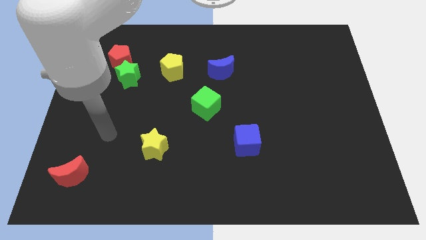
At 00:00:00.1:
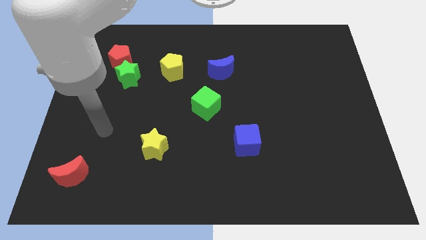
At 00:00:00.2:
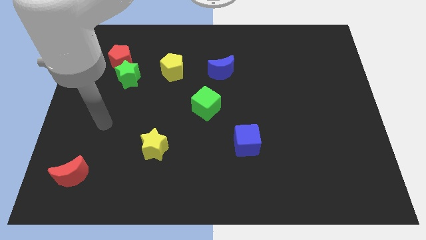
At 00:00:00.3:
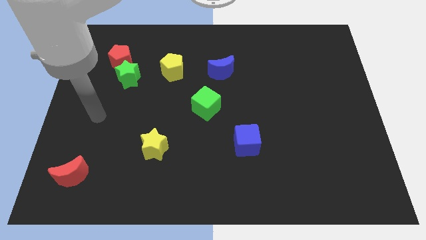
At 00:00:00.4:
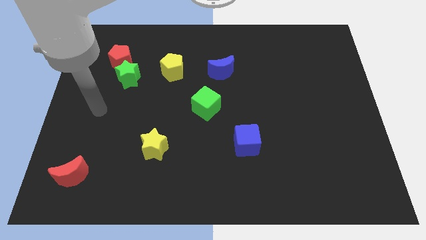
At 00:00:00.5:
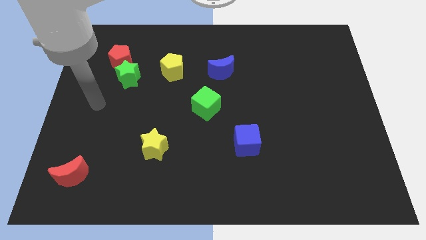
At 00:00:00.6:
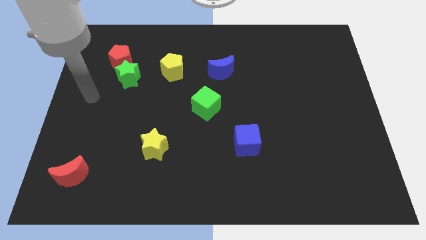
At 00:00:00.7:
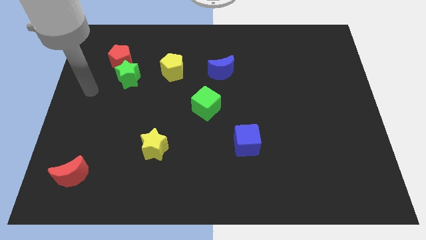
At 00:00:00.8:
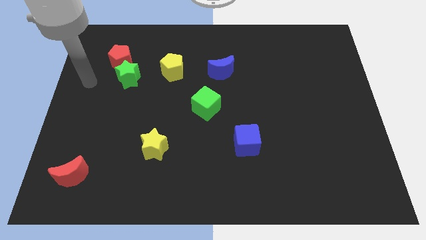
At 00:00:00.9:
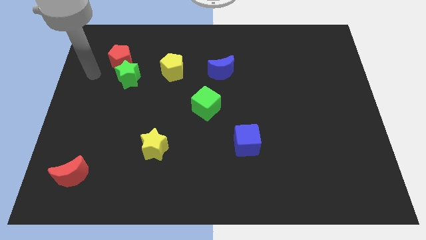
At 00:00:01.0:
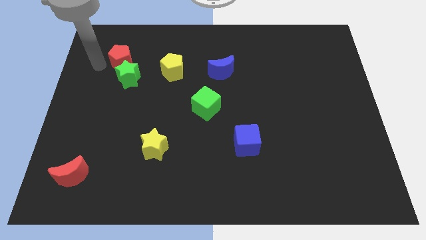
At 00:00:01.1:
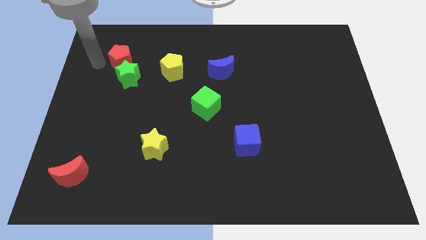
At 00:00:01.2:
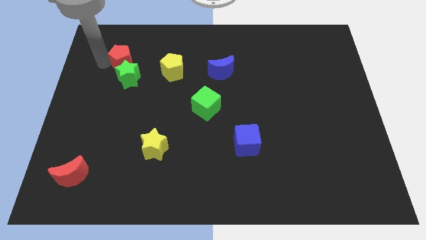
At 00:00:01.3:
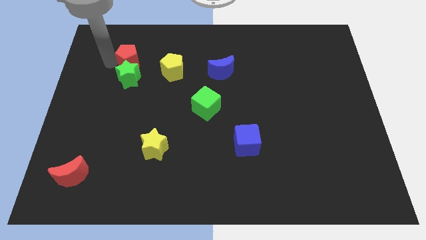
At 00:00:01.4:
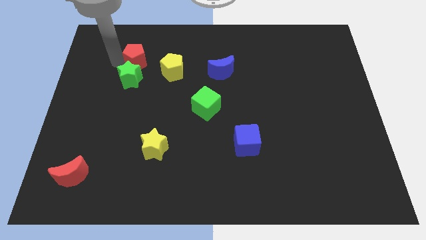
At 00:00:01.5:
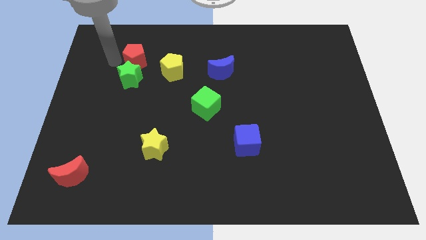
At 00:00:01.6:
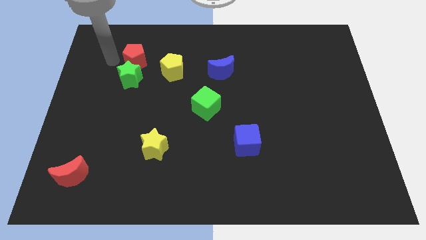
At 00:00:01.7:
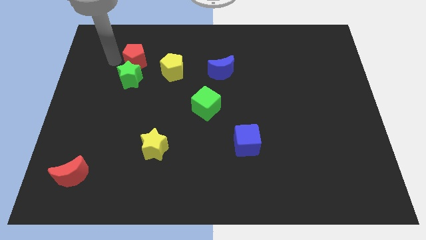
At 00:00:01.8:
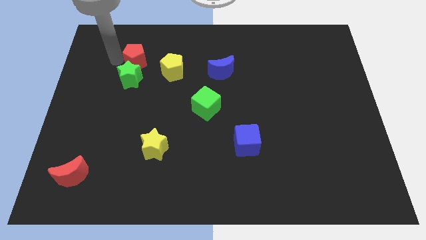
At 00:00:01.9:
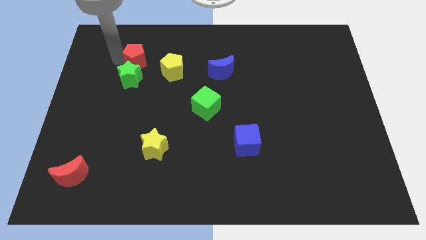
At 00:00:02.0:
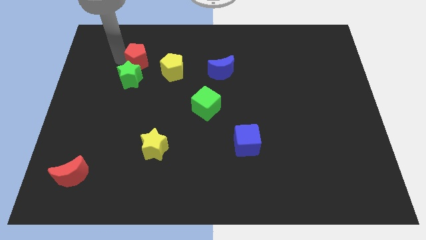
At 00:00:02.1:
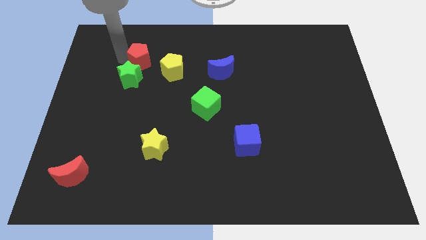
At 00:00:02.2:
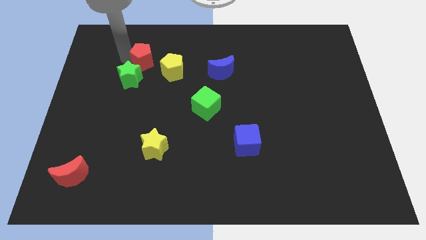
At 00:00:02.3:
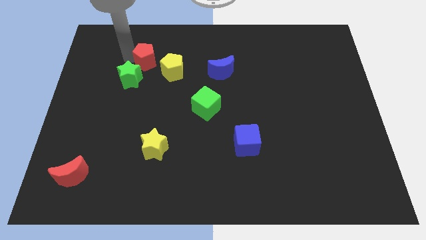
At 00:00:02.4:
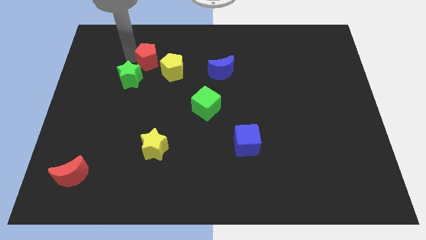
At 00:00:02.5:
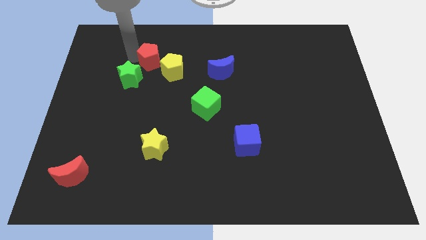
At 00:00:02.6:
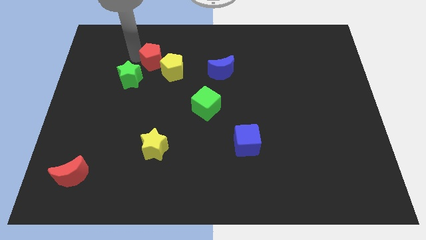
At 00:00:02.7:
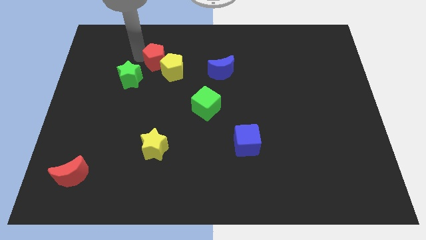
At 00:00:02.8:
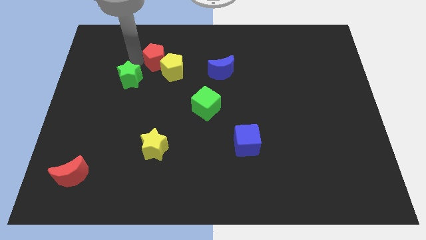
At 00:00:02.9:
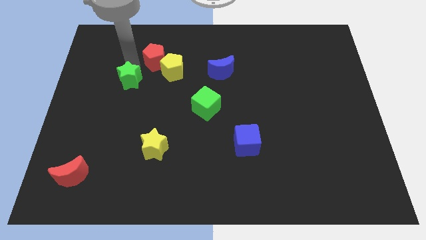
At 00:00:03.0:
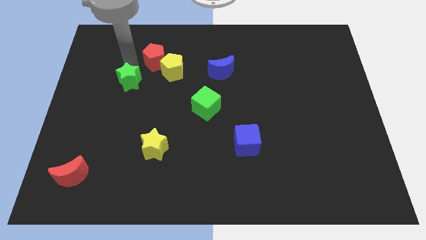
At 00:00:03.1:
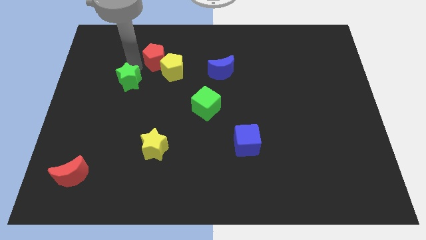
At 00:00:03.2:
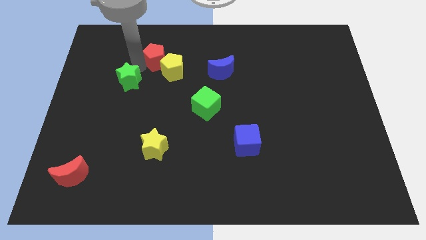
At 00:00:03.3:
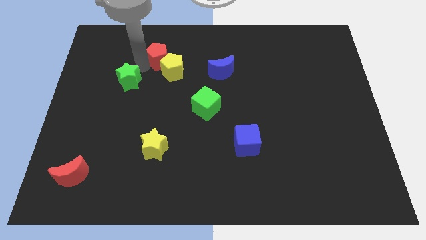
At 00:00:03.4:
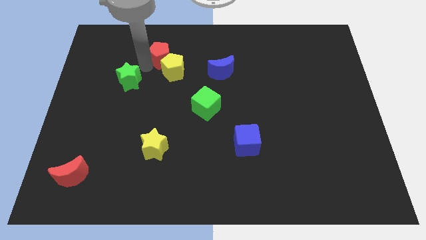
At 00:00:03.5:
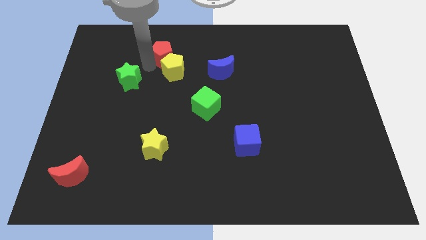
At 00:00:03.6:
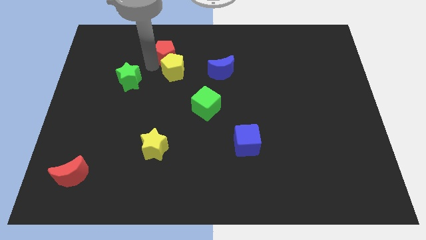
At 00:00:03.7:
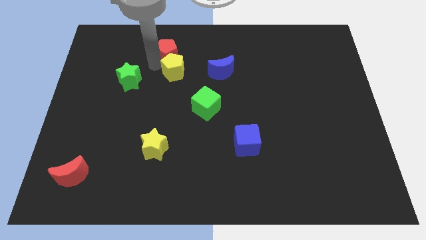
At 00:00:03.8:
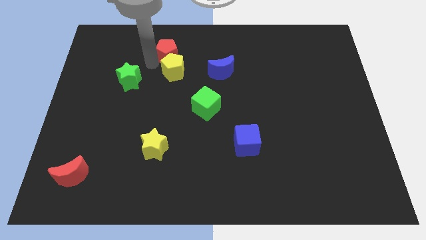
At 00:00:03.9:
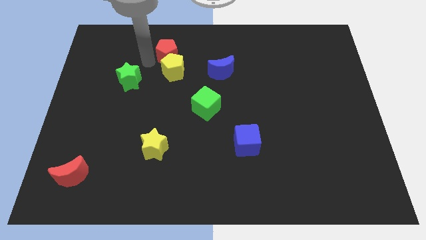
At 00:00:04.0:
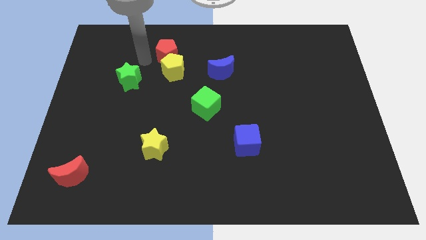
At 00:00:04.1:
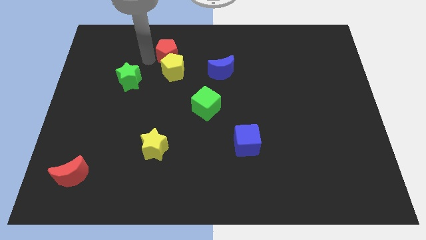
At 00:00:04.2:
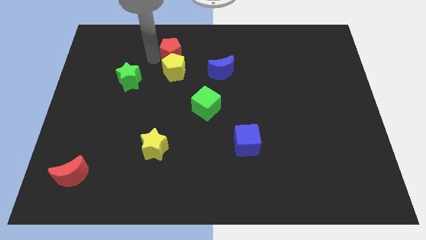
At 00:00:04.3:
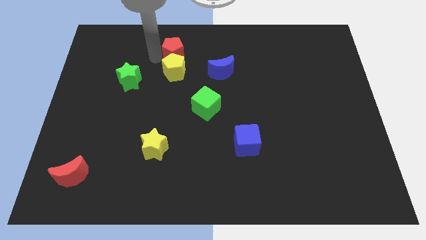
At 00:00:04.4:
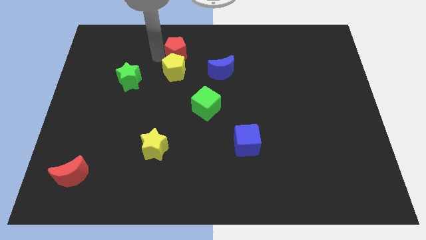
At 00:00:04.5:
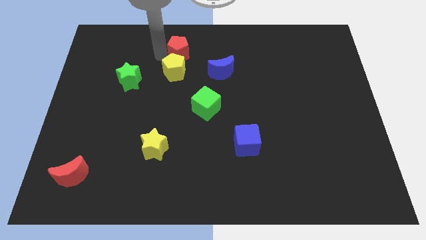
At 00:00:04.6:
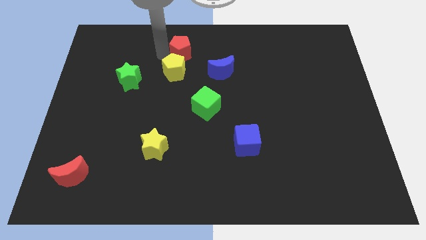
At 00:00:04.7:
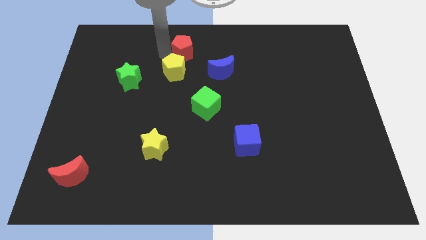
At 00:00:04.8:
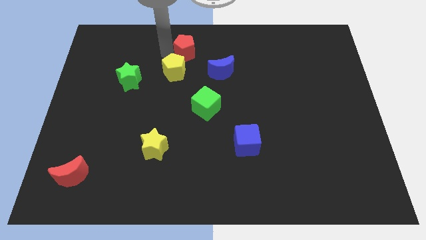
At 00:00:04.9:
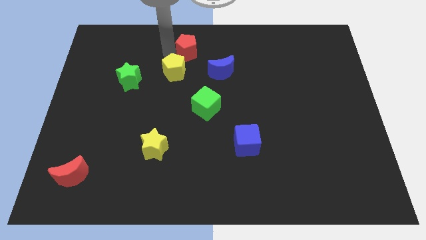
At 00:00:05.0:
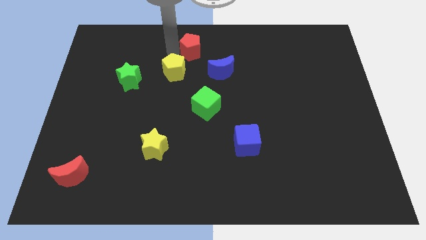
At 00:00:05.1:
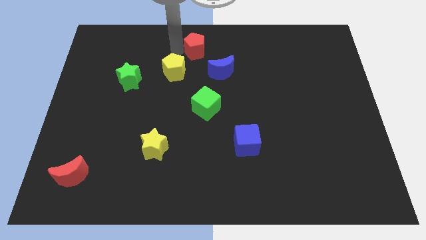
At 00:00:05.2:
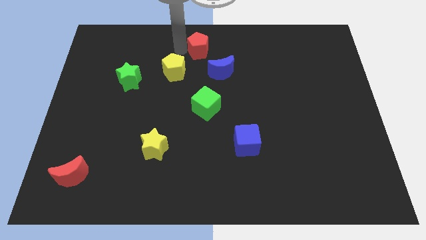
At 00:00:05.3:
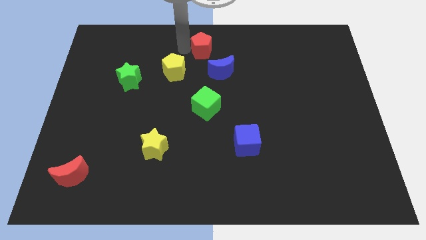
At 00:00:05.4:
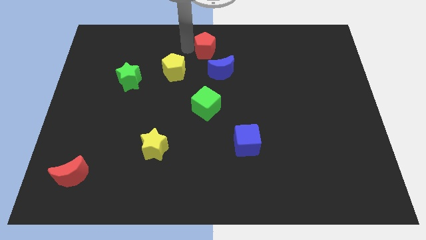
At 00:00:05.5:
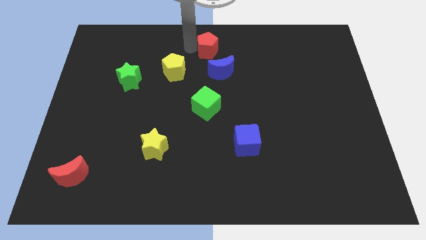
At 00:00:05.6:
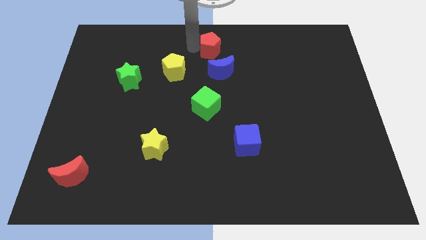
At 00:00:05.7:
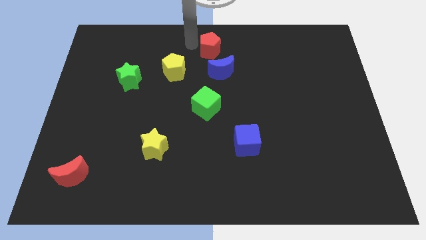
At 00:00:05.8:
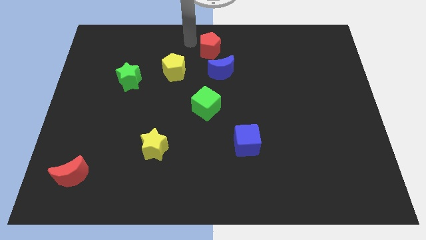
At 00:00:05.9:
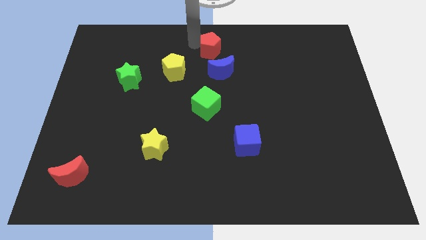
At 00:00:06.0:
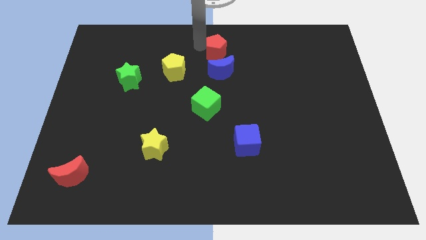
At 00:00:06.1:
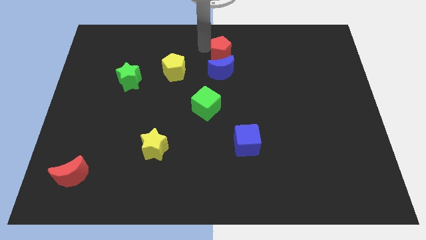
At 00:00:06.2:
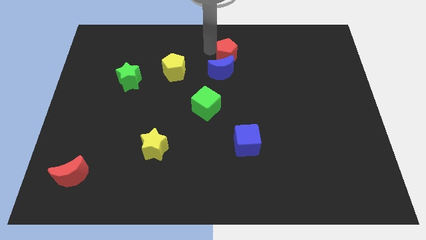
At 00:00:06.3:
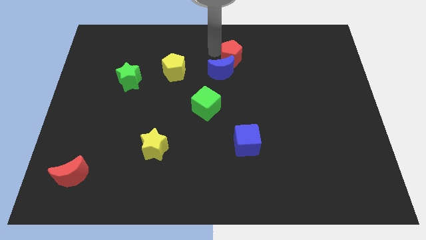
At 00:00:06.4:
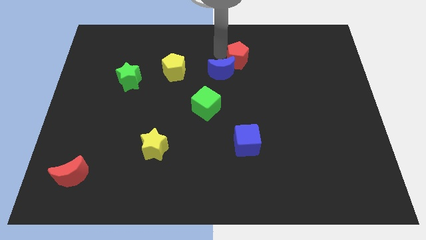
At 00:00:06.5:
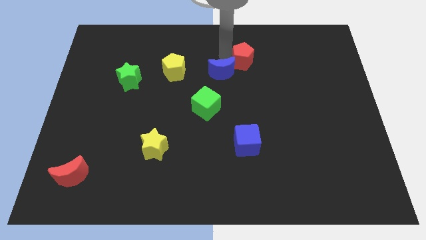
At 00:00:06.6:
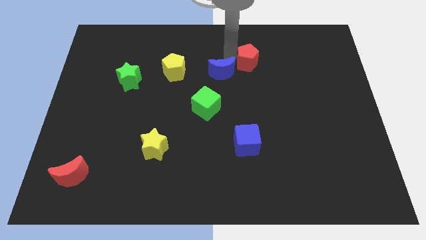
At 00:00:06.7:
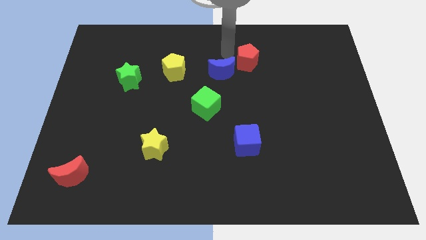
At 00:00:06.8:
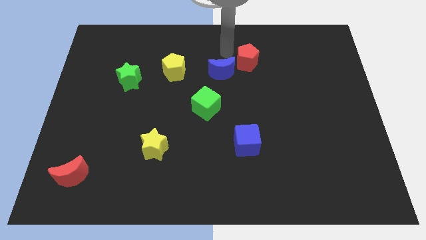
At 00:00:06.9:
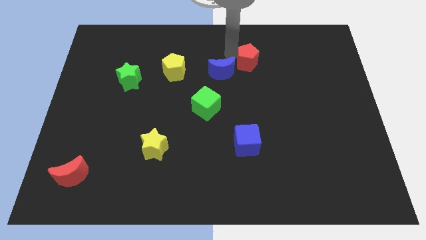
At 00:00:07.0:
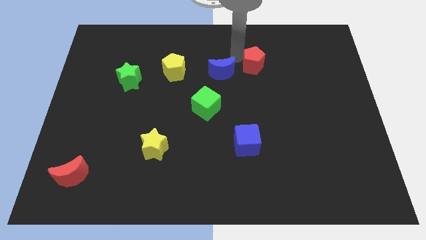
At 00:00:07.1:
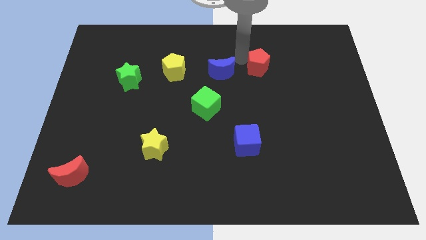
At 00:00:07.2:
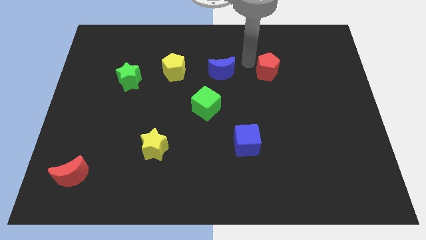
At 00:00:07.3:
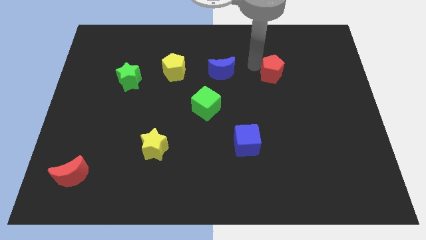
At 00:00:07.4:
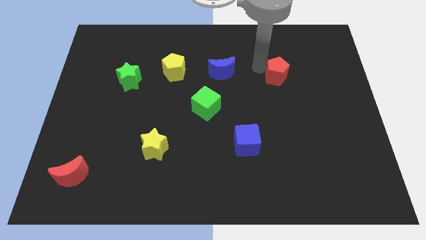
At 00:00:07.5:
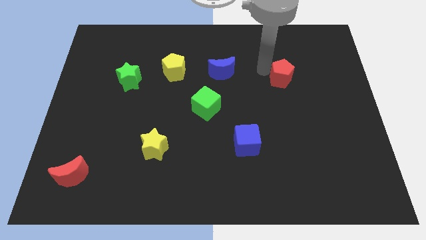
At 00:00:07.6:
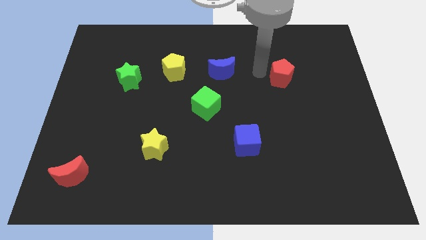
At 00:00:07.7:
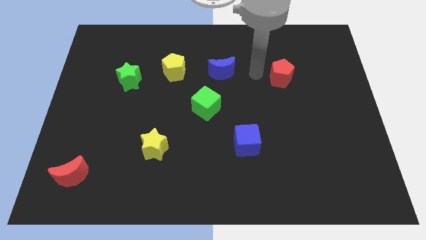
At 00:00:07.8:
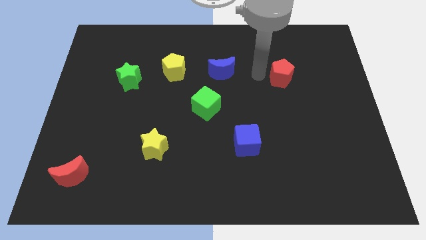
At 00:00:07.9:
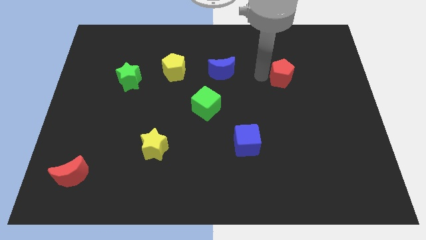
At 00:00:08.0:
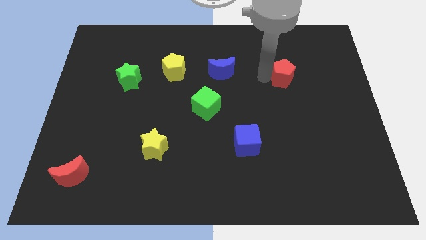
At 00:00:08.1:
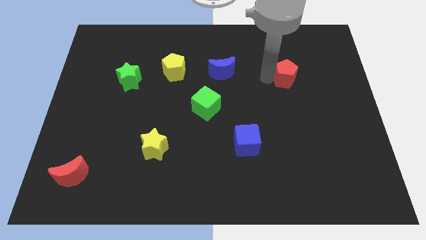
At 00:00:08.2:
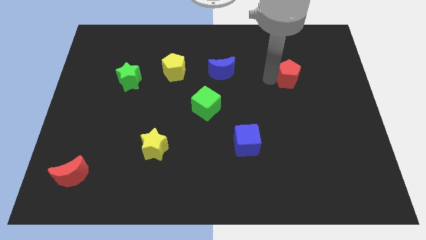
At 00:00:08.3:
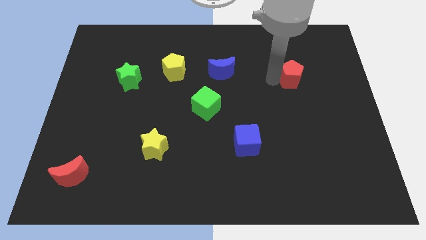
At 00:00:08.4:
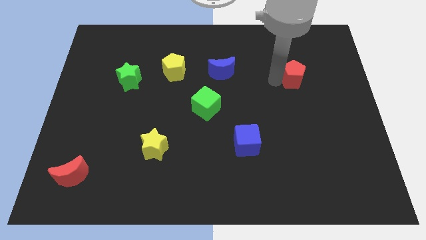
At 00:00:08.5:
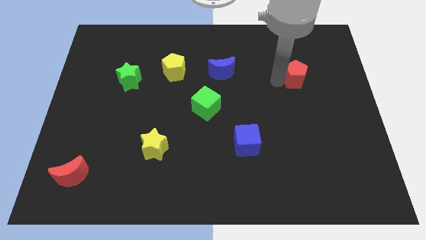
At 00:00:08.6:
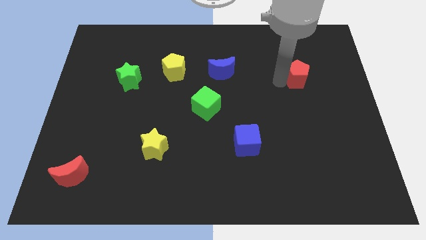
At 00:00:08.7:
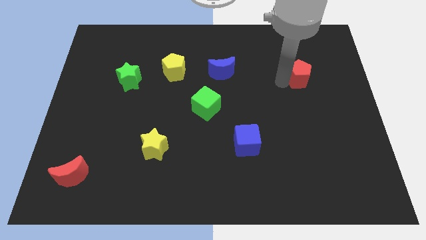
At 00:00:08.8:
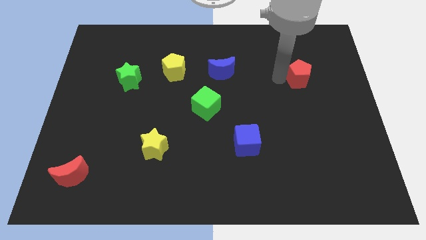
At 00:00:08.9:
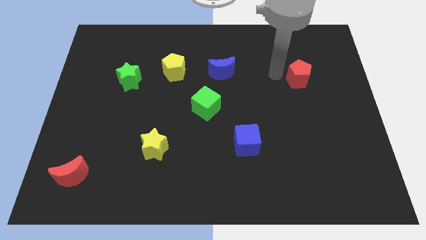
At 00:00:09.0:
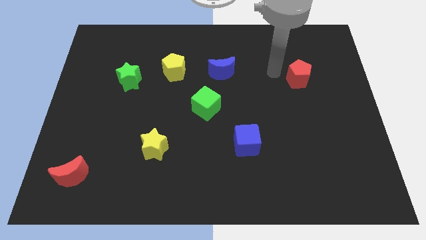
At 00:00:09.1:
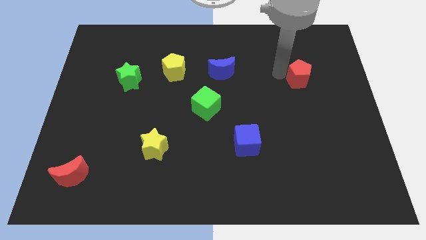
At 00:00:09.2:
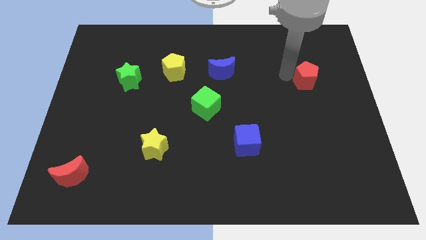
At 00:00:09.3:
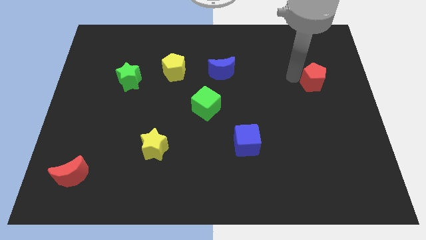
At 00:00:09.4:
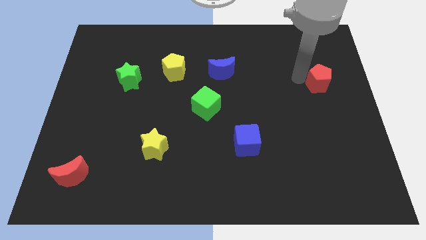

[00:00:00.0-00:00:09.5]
slide the red pentagon to the center right
